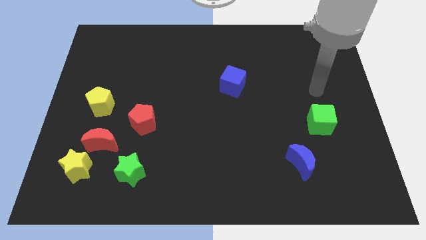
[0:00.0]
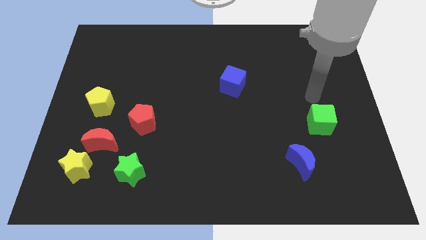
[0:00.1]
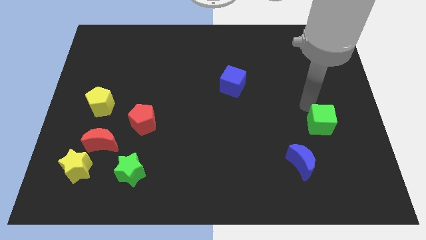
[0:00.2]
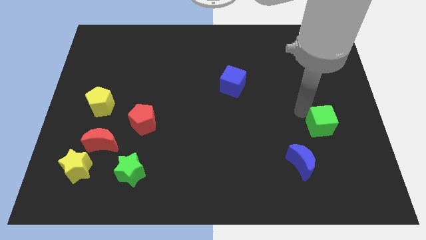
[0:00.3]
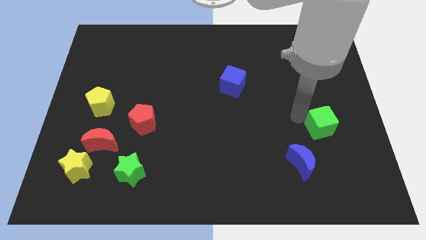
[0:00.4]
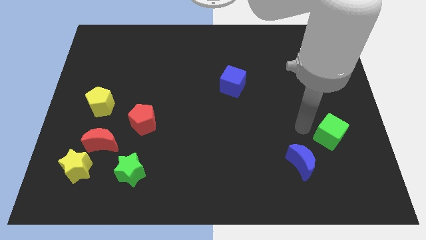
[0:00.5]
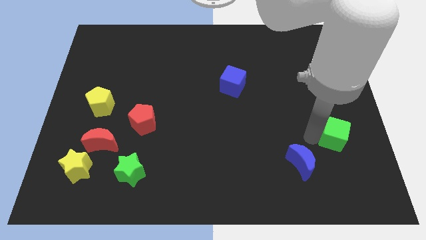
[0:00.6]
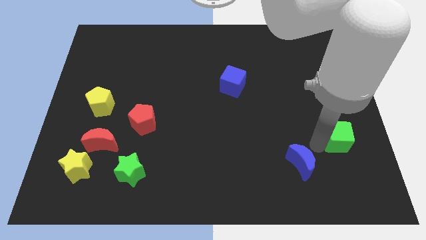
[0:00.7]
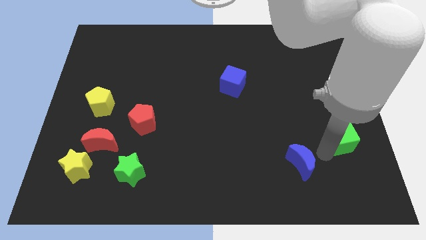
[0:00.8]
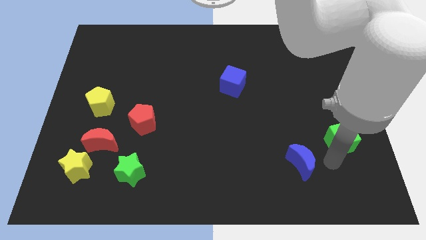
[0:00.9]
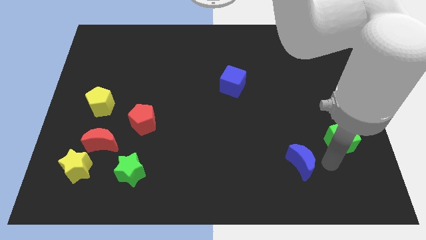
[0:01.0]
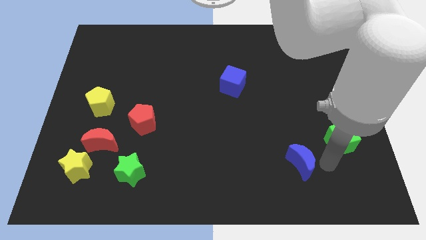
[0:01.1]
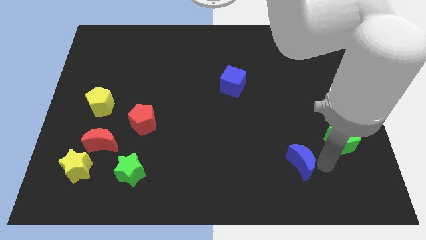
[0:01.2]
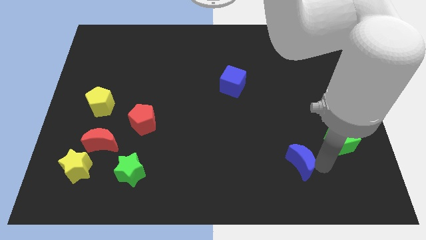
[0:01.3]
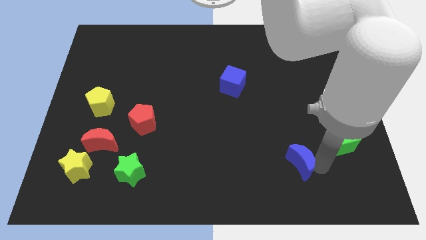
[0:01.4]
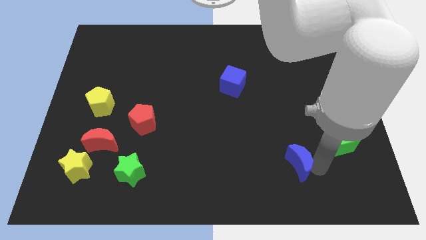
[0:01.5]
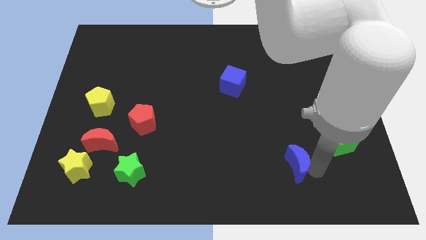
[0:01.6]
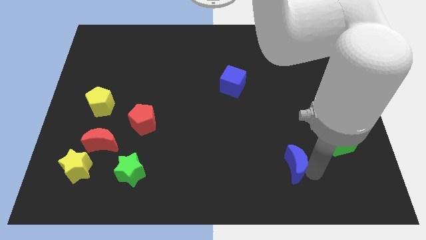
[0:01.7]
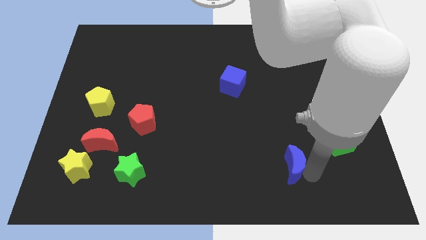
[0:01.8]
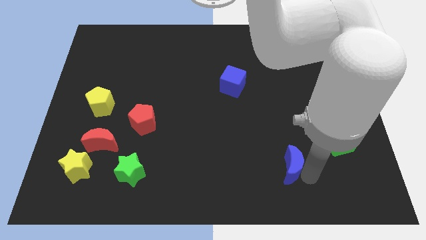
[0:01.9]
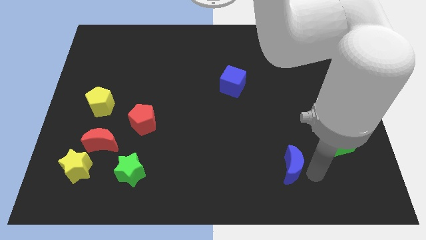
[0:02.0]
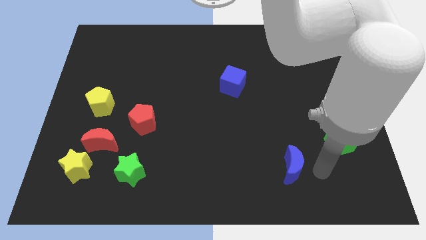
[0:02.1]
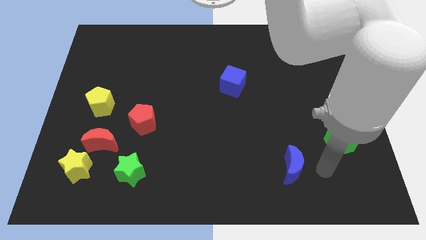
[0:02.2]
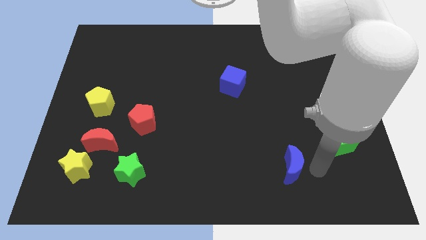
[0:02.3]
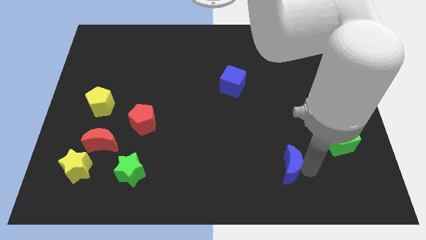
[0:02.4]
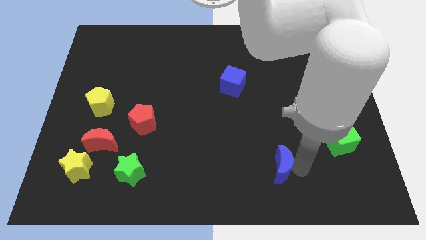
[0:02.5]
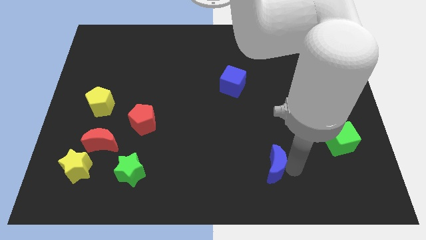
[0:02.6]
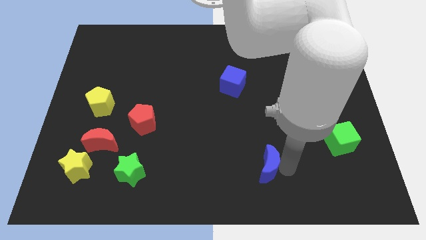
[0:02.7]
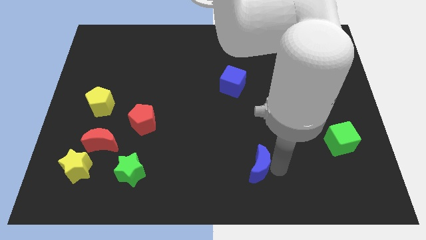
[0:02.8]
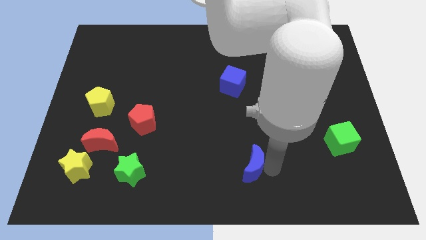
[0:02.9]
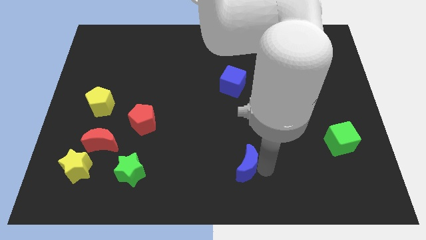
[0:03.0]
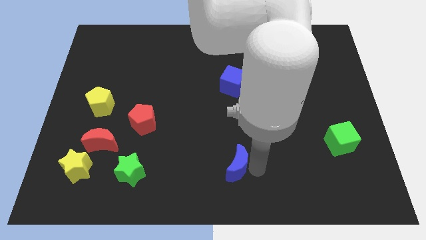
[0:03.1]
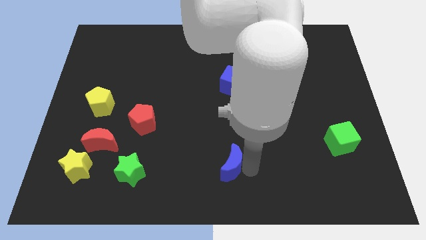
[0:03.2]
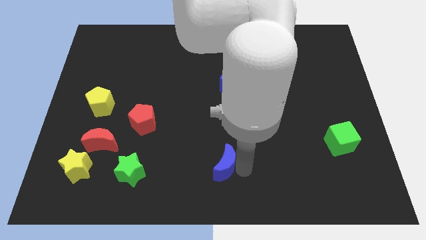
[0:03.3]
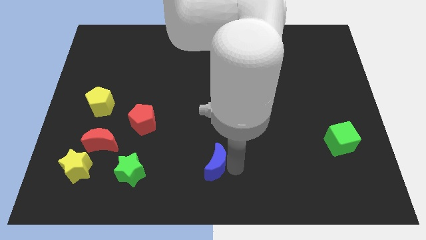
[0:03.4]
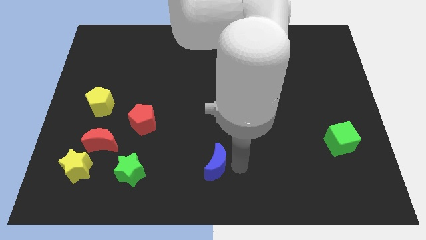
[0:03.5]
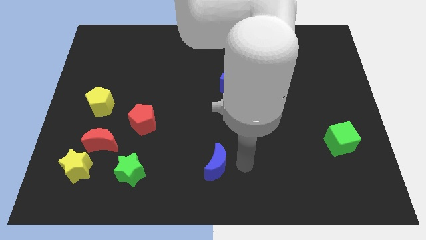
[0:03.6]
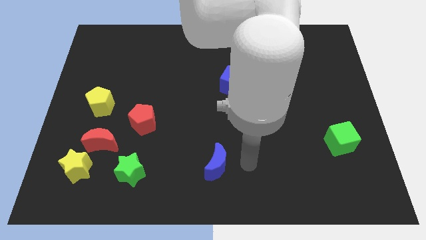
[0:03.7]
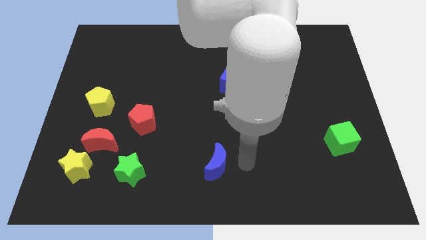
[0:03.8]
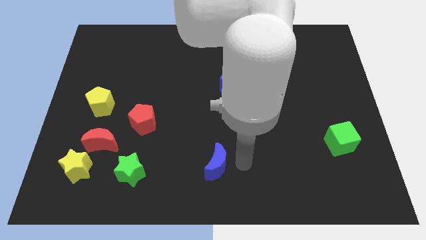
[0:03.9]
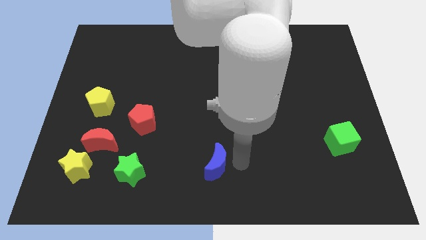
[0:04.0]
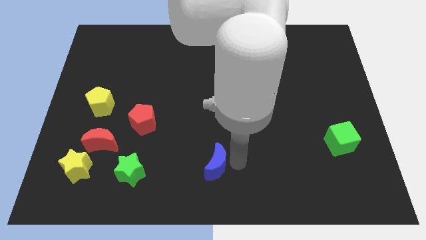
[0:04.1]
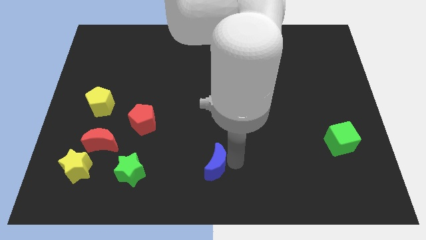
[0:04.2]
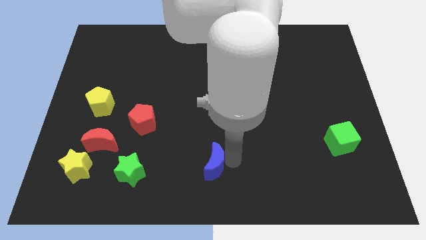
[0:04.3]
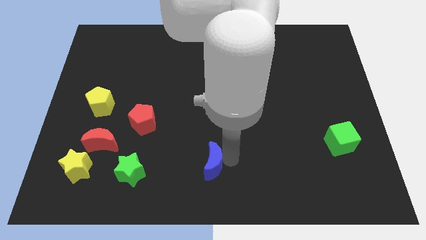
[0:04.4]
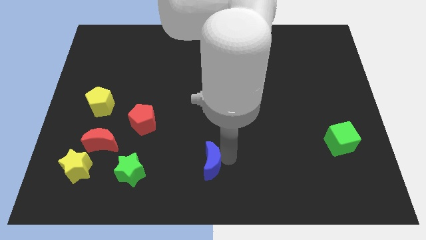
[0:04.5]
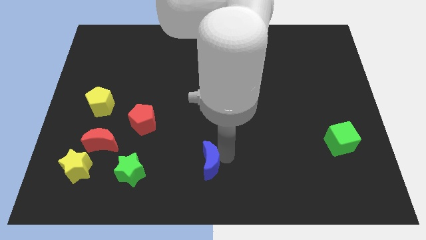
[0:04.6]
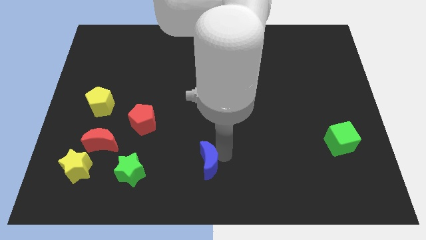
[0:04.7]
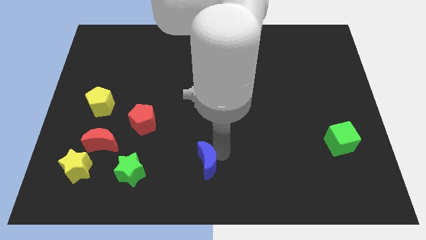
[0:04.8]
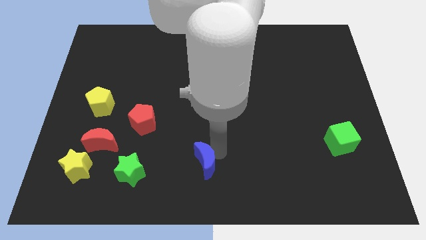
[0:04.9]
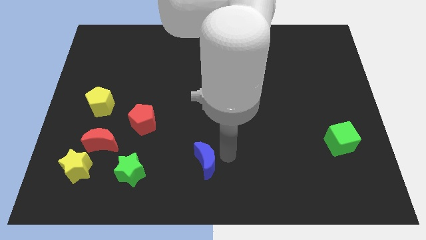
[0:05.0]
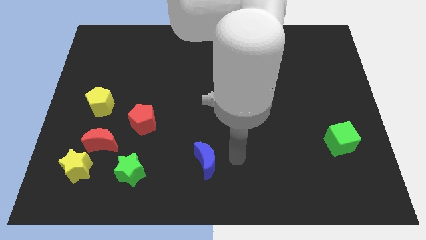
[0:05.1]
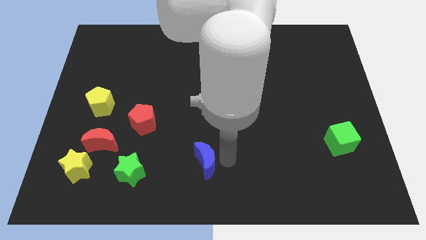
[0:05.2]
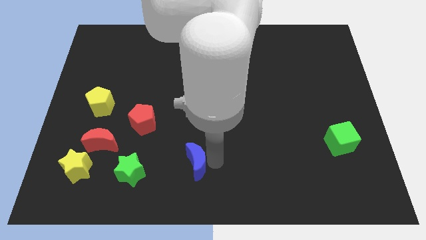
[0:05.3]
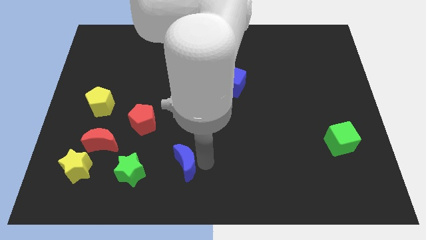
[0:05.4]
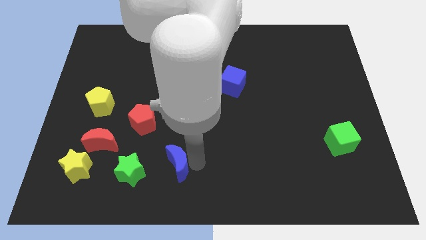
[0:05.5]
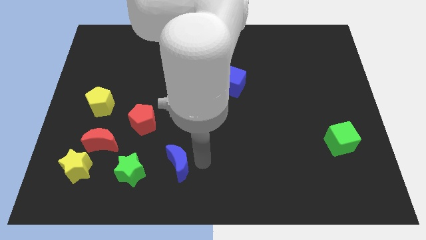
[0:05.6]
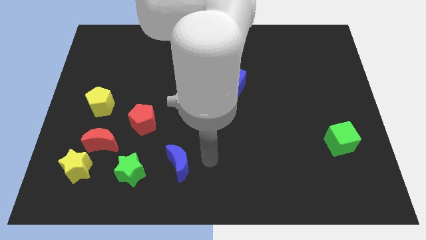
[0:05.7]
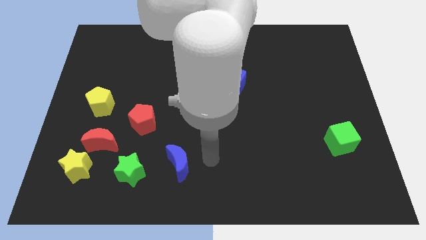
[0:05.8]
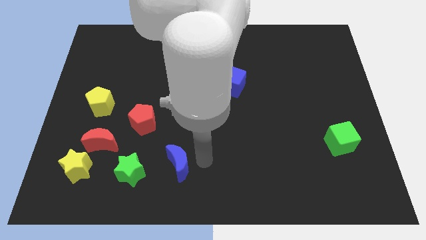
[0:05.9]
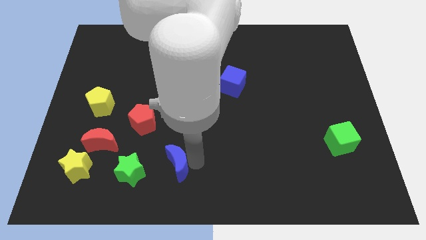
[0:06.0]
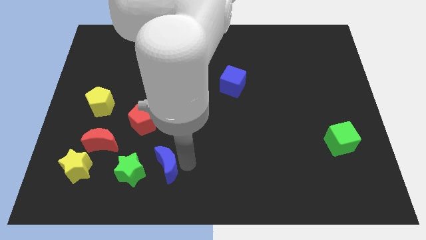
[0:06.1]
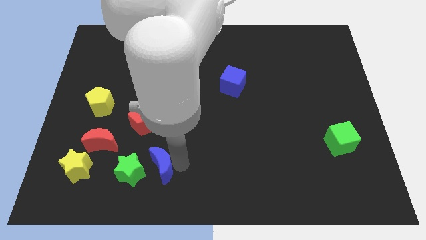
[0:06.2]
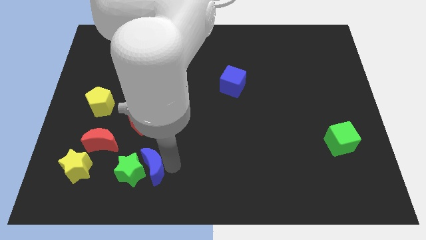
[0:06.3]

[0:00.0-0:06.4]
push the blue moon next to the green star

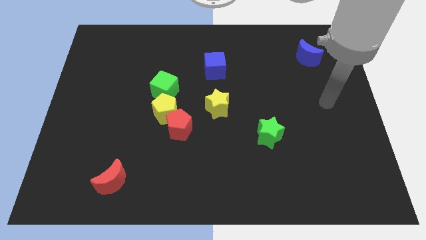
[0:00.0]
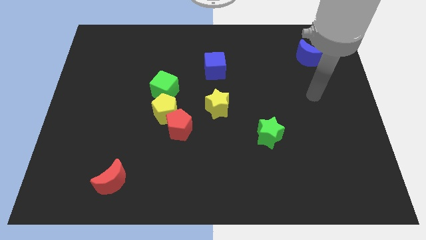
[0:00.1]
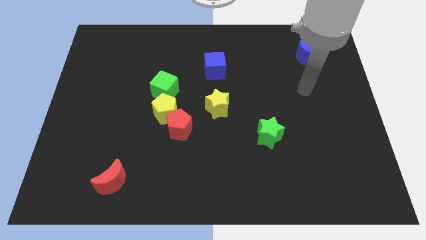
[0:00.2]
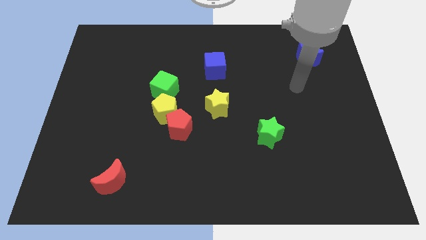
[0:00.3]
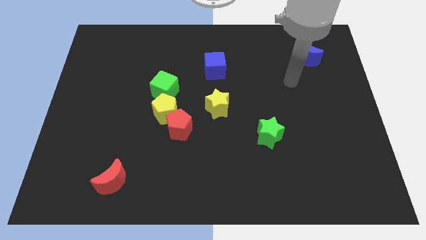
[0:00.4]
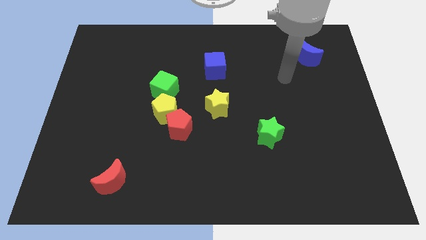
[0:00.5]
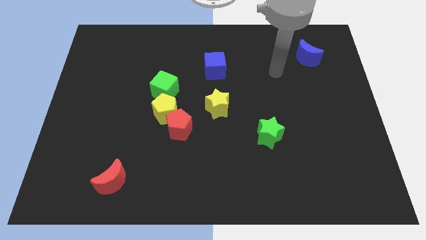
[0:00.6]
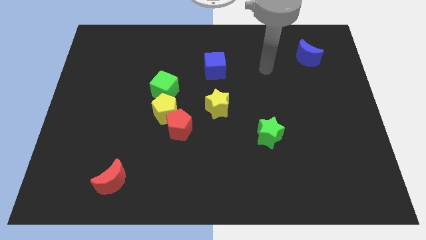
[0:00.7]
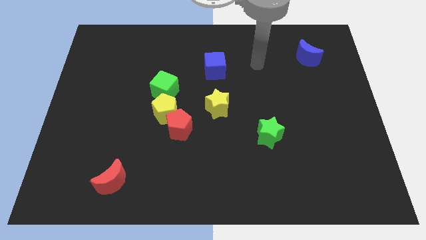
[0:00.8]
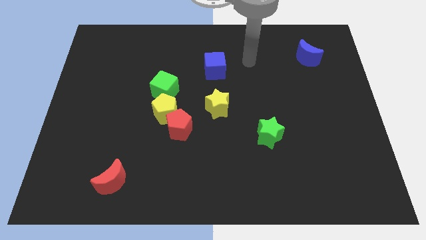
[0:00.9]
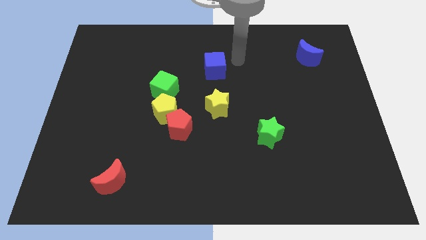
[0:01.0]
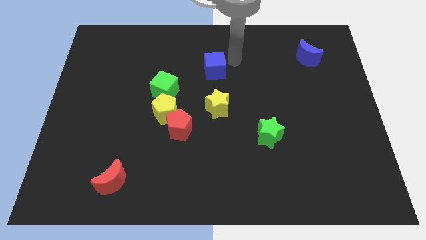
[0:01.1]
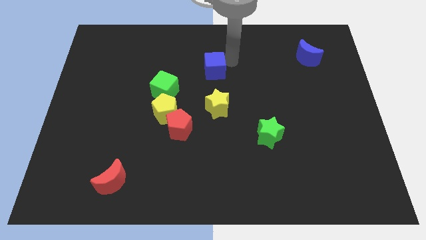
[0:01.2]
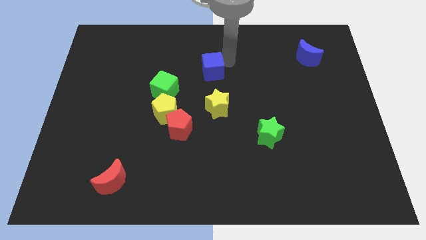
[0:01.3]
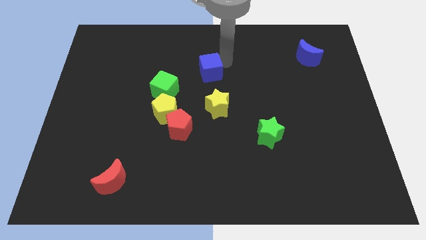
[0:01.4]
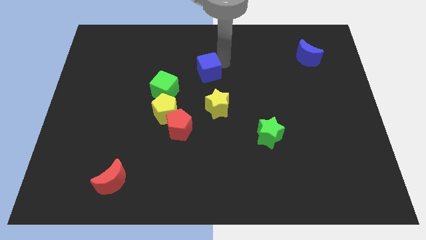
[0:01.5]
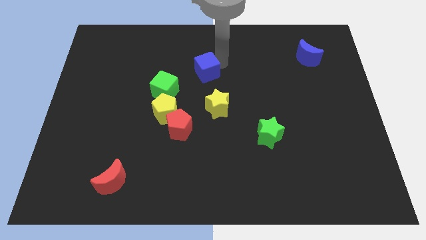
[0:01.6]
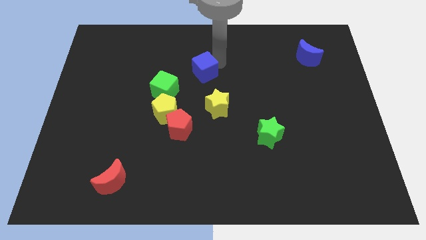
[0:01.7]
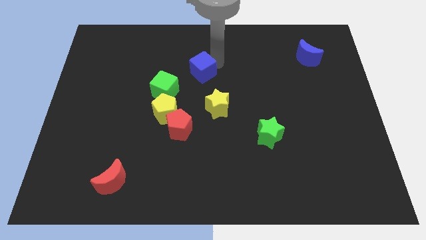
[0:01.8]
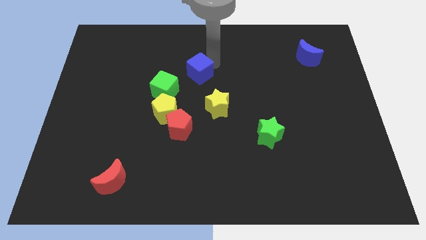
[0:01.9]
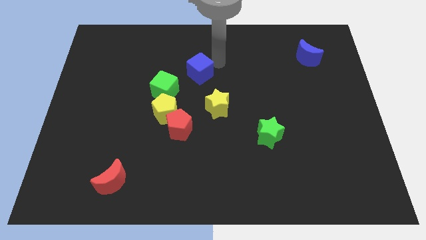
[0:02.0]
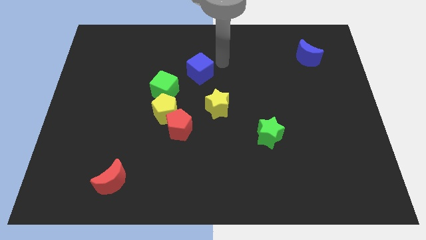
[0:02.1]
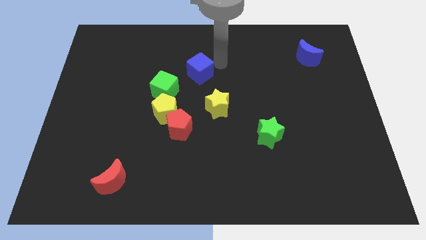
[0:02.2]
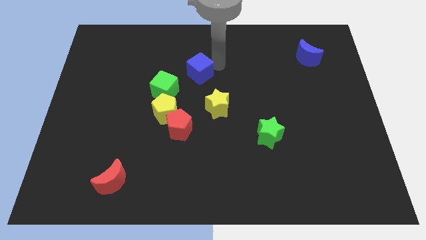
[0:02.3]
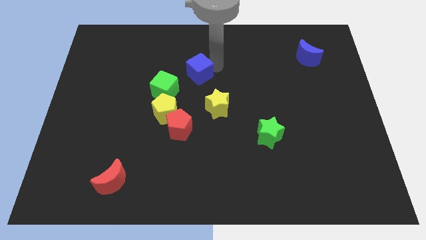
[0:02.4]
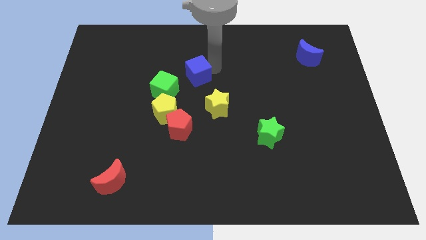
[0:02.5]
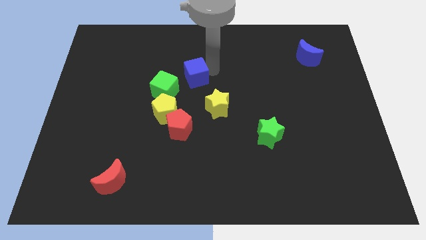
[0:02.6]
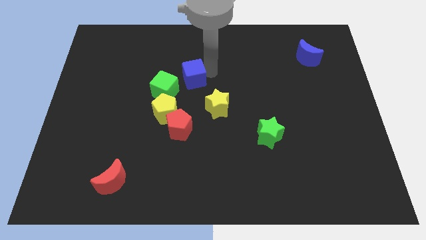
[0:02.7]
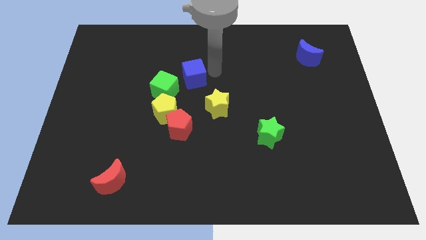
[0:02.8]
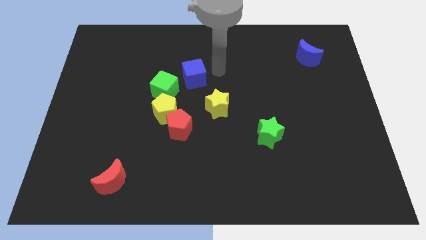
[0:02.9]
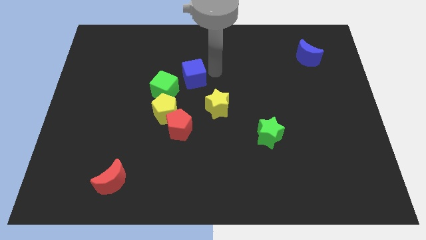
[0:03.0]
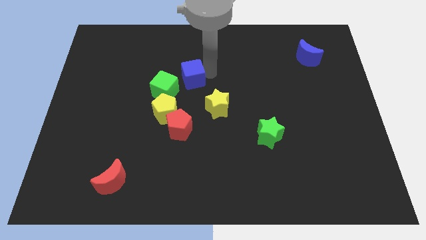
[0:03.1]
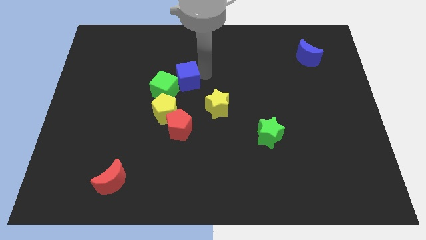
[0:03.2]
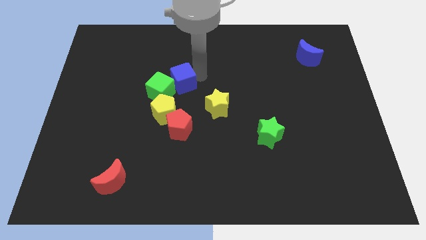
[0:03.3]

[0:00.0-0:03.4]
slide the blue cube to the green cube
